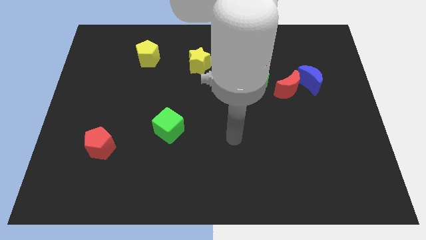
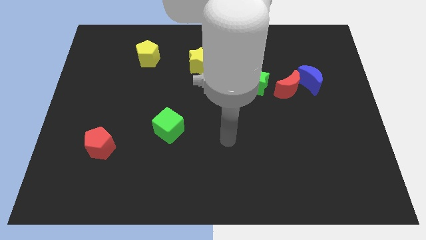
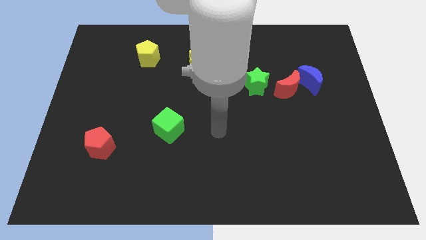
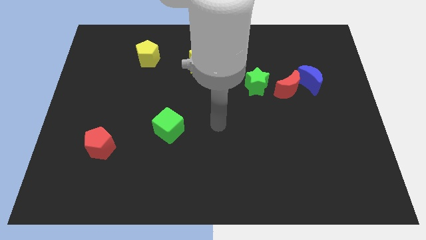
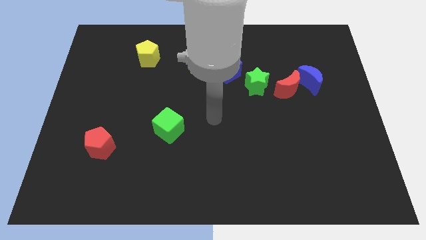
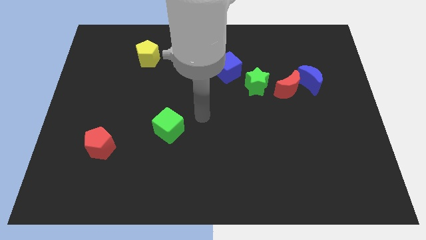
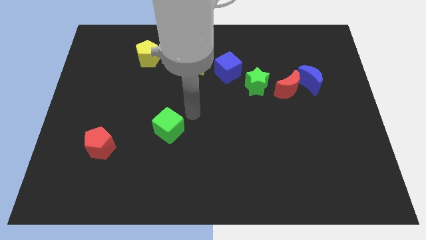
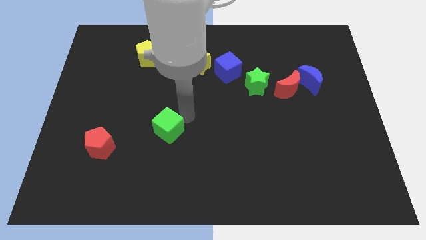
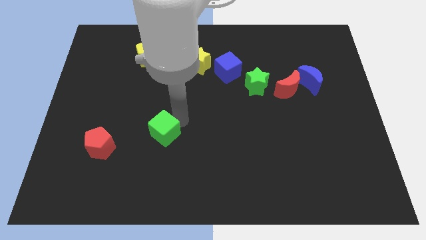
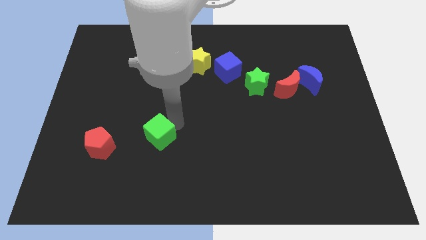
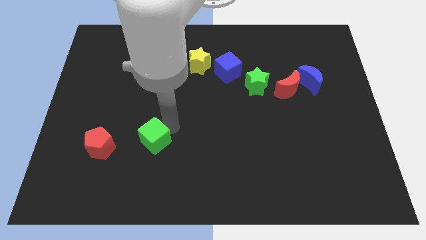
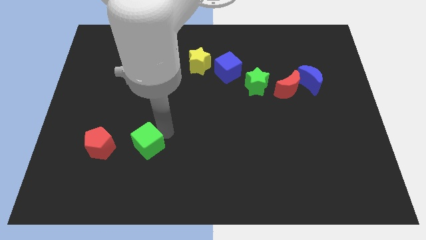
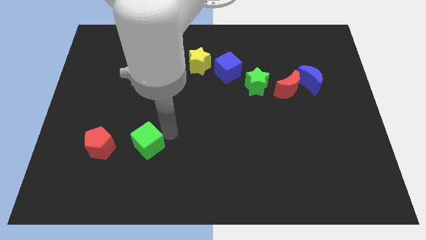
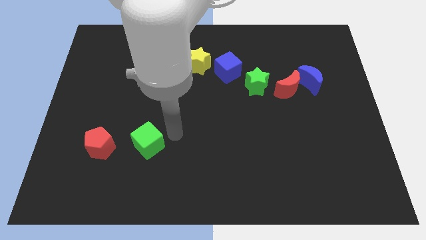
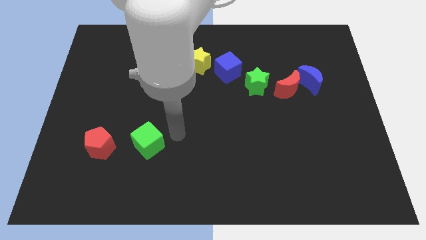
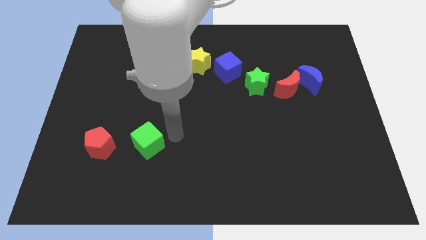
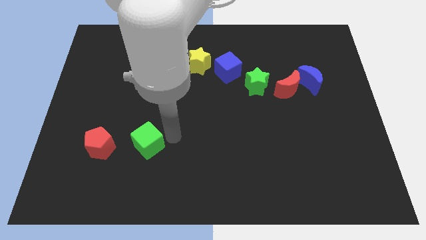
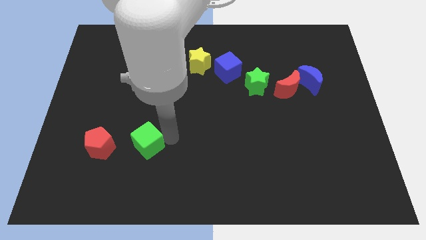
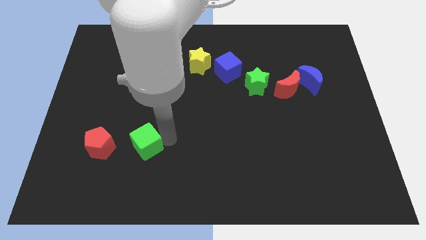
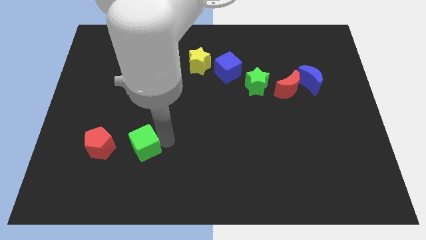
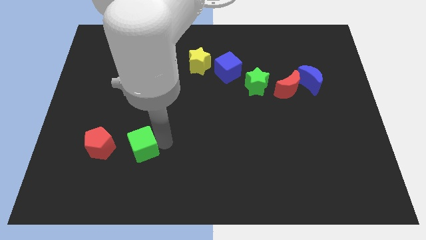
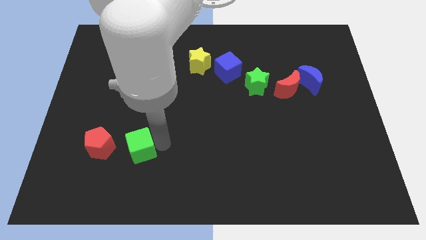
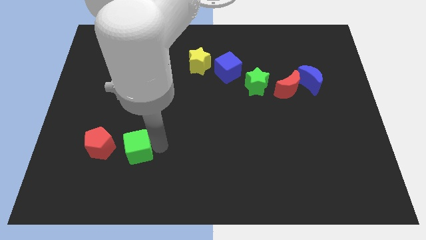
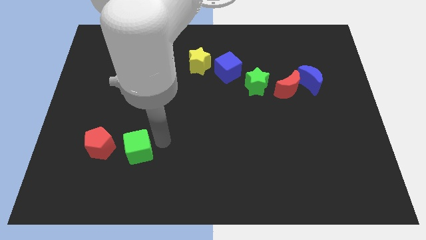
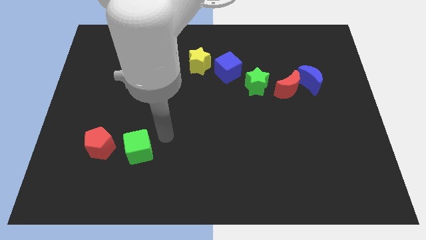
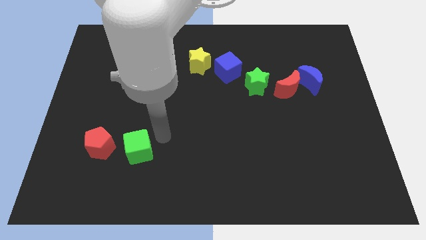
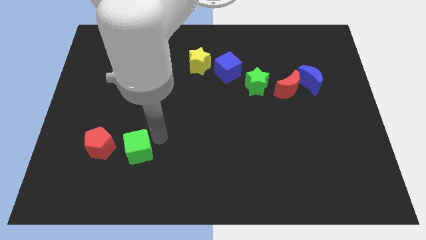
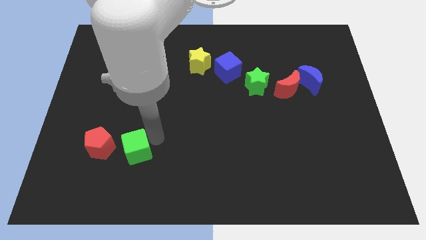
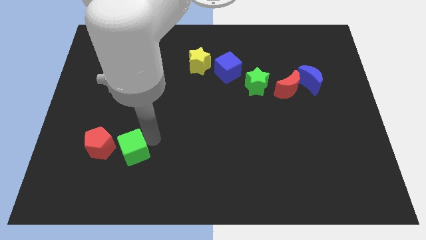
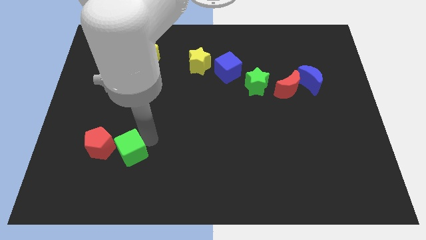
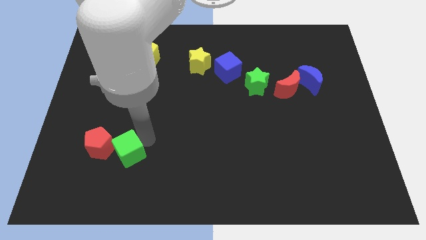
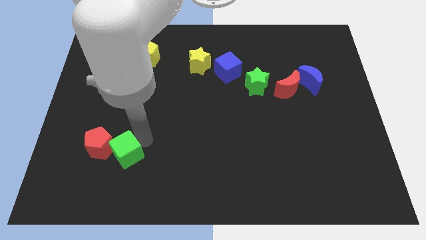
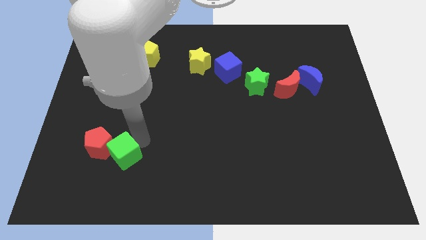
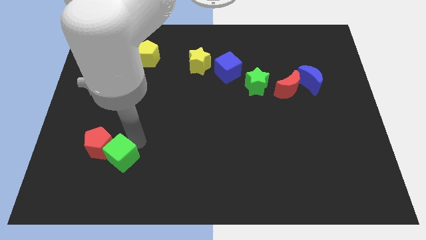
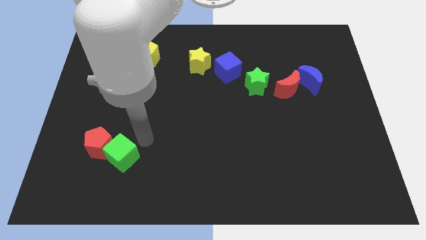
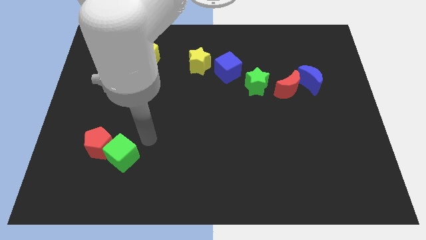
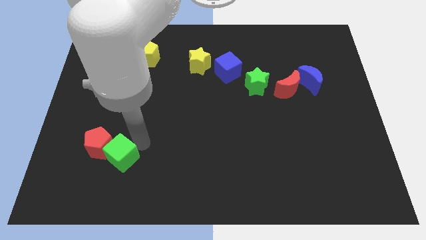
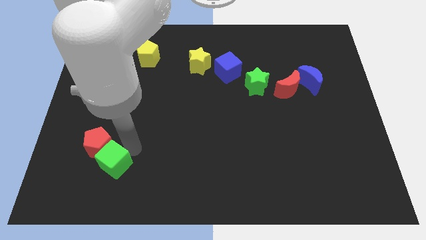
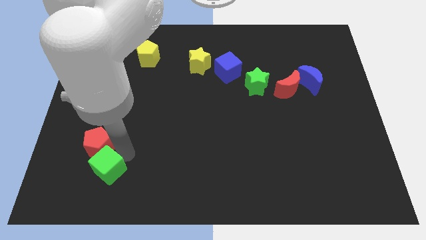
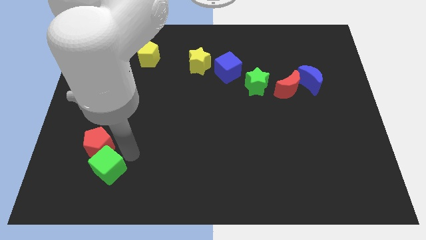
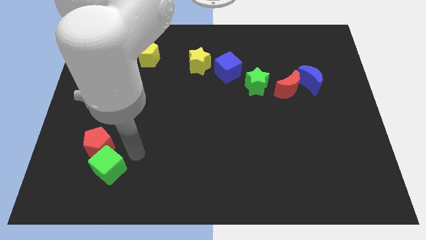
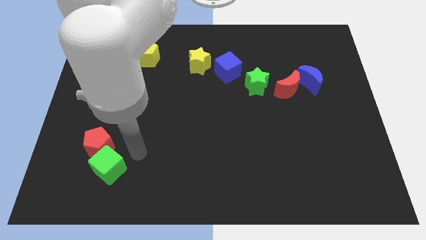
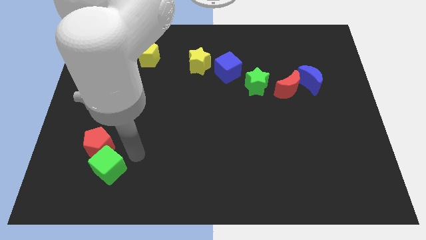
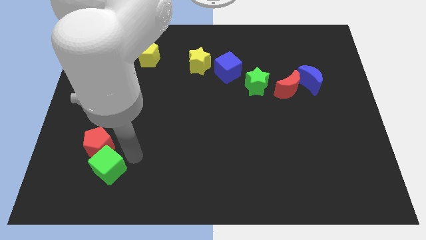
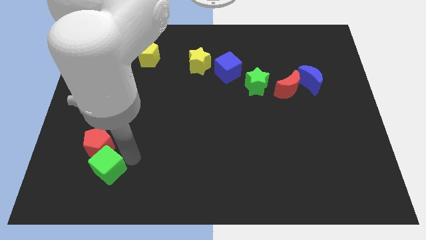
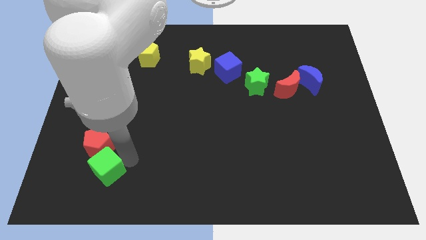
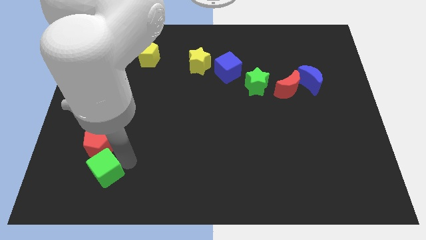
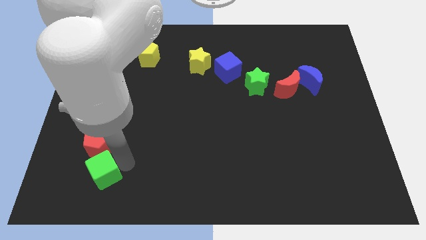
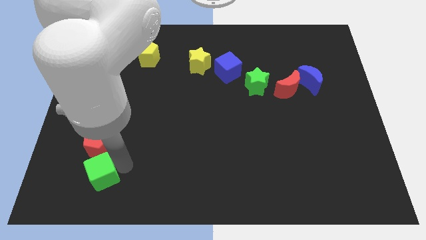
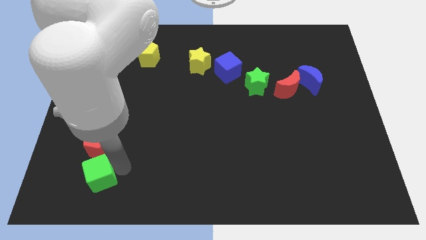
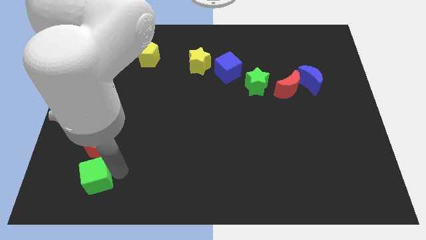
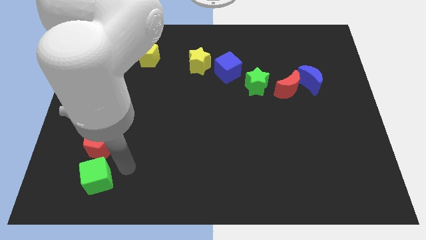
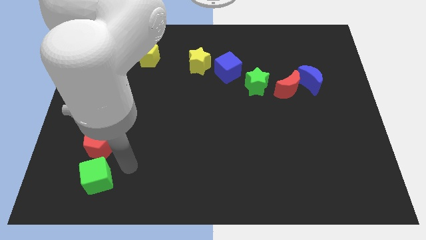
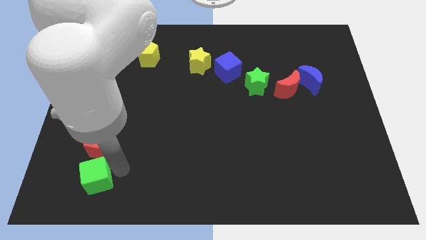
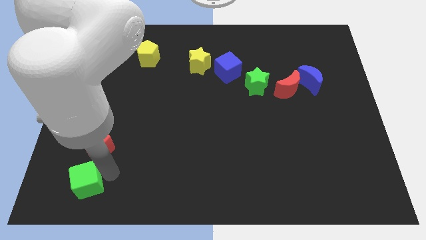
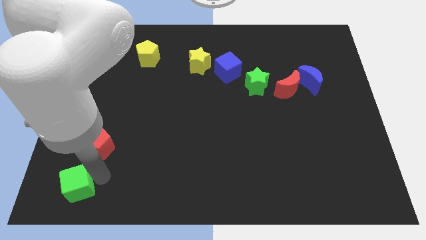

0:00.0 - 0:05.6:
slide the green cube to the lower left corner

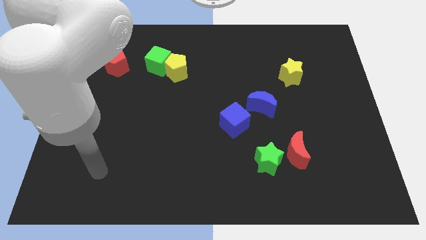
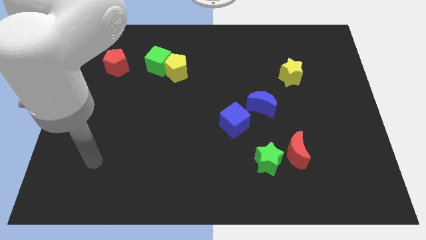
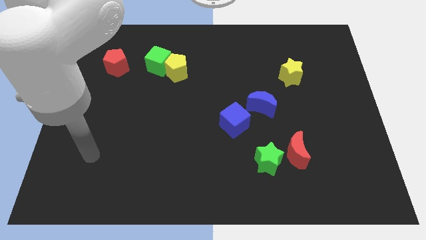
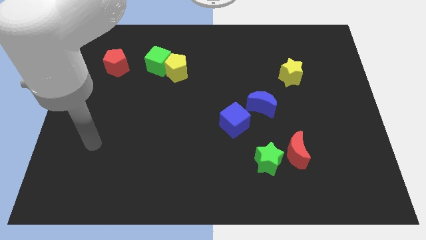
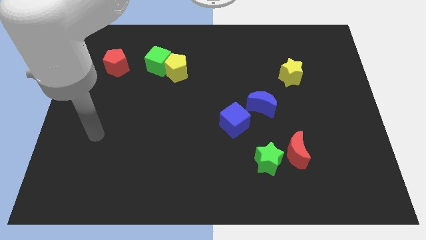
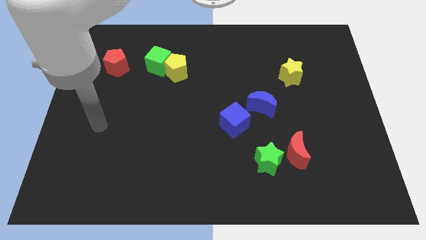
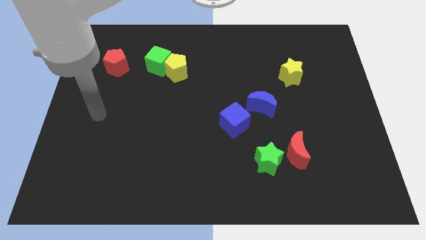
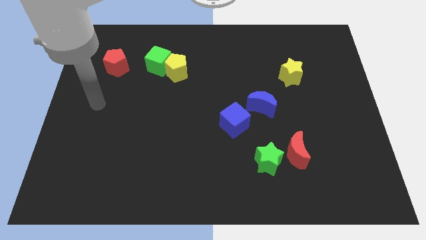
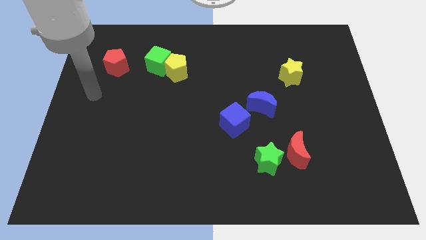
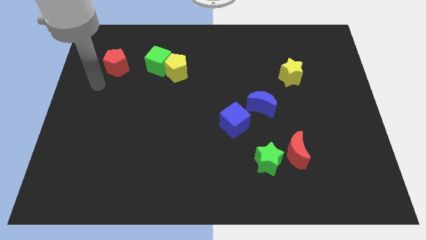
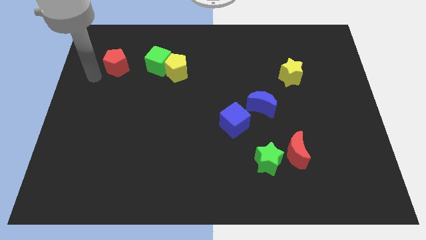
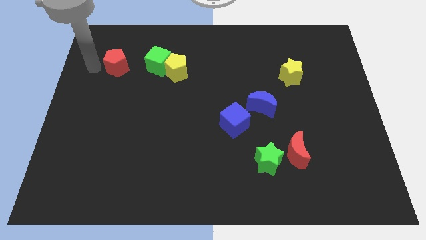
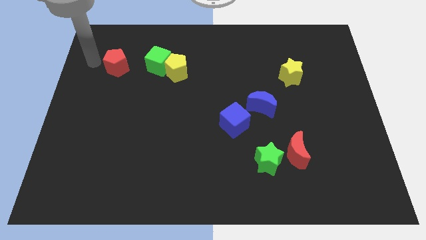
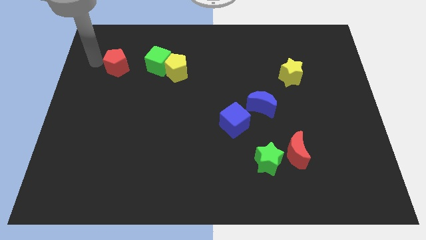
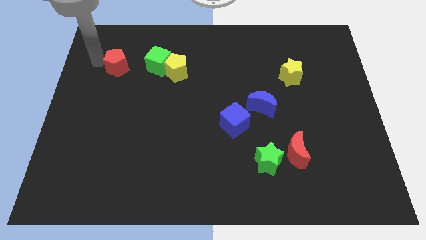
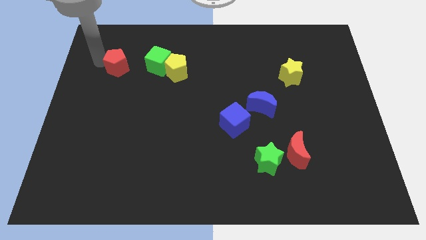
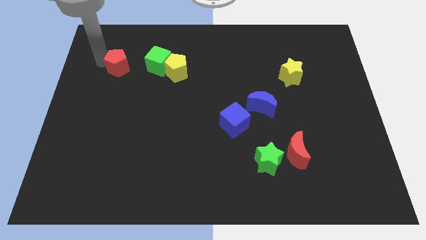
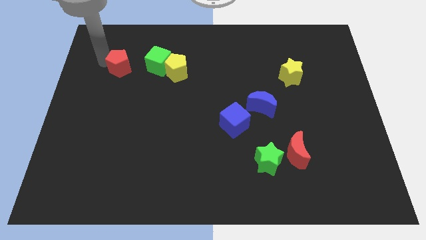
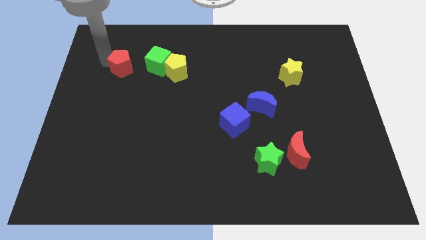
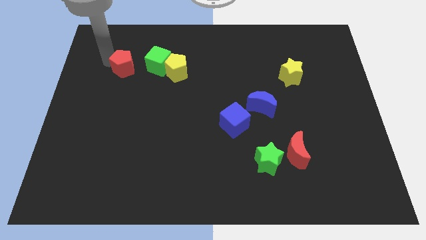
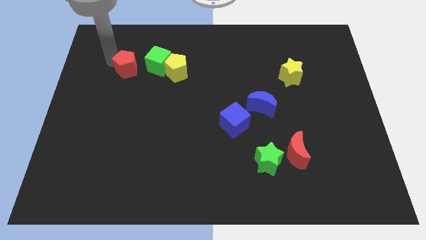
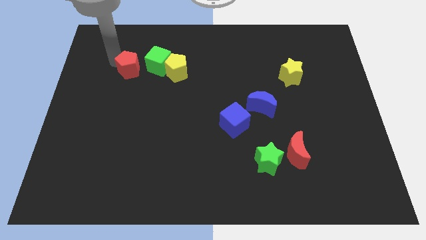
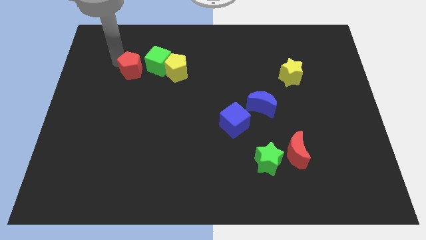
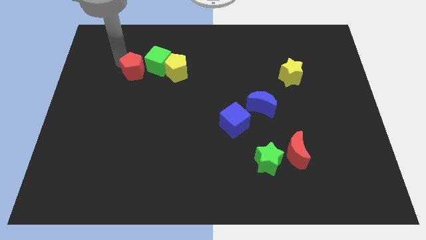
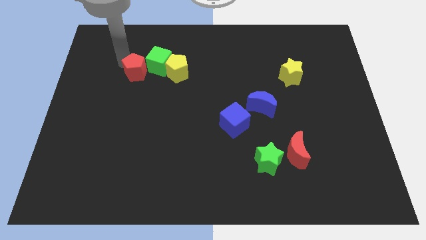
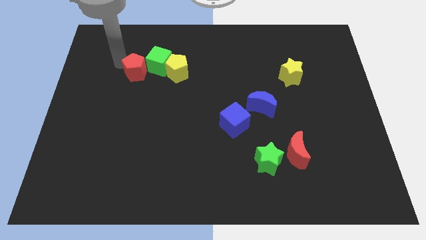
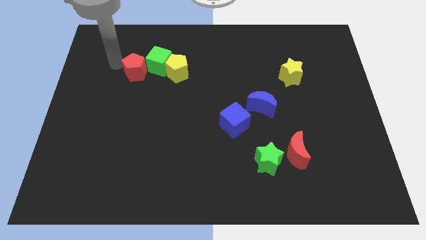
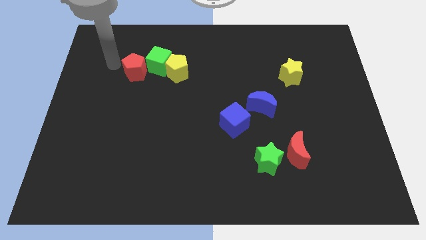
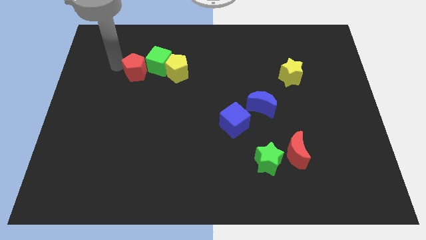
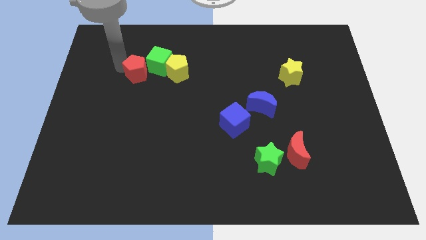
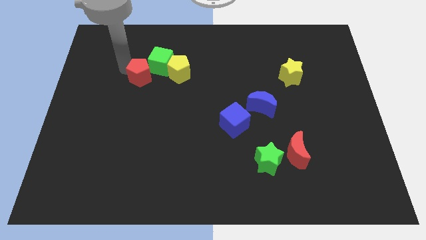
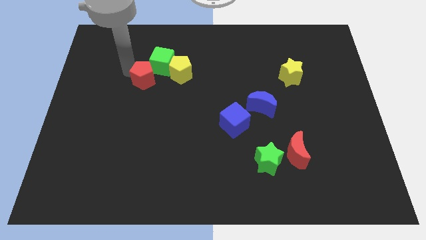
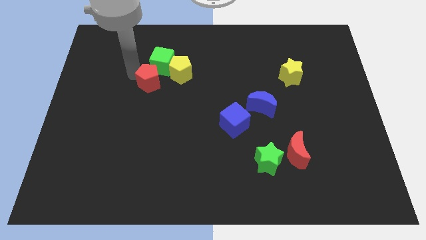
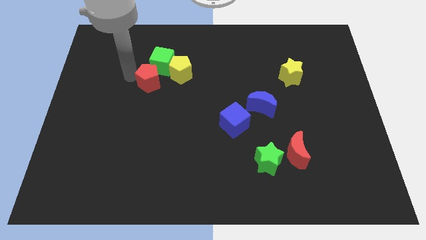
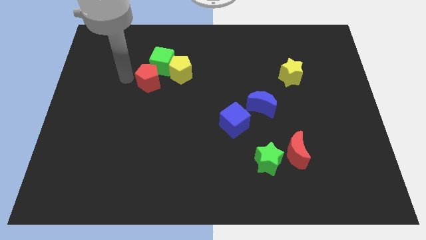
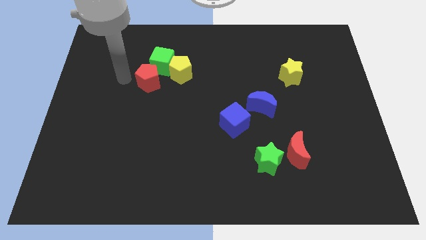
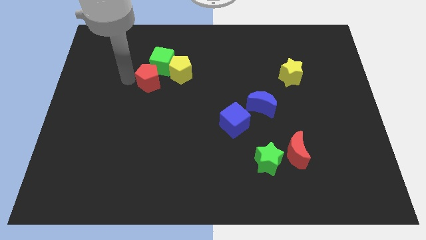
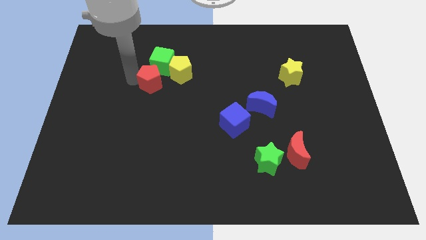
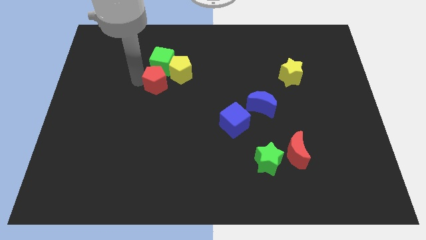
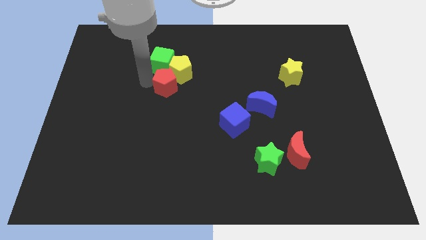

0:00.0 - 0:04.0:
put the red pentagon to the center of the board
